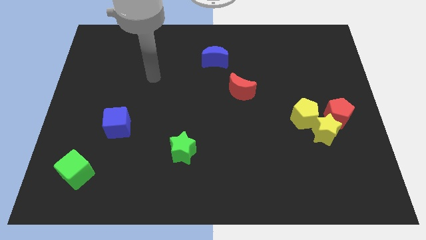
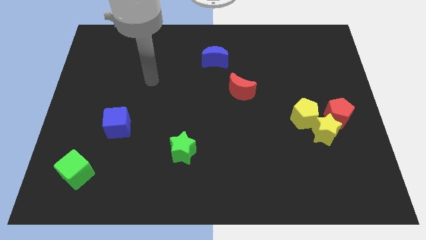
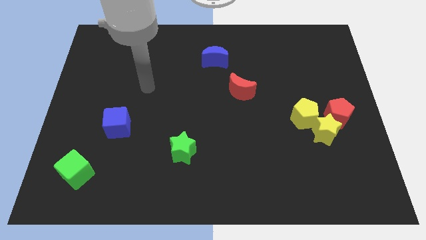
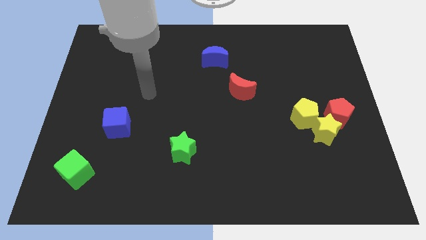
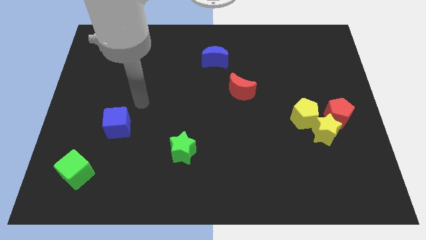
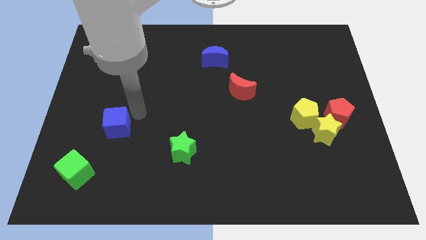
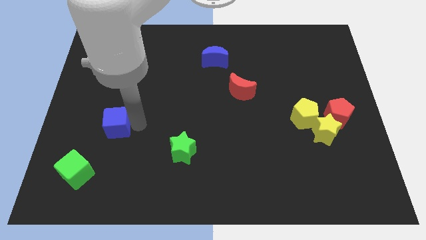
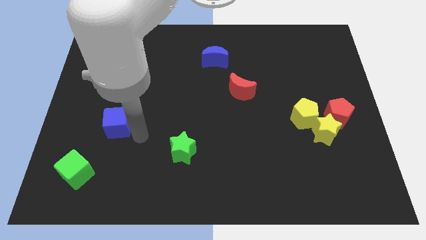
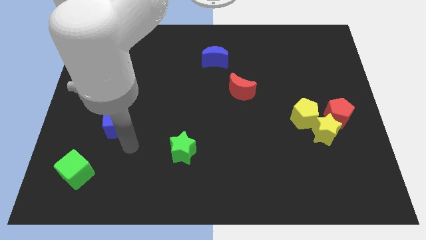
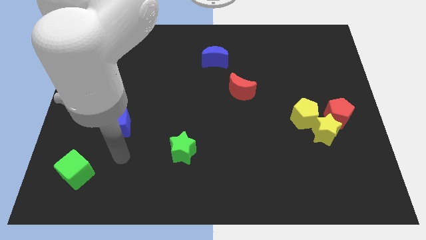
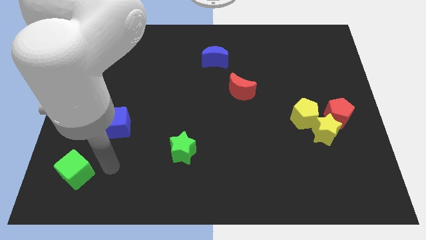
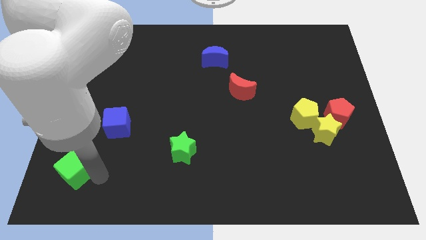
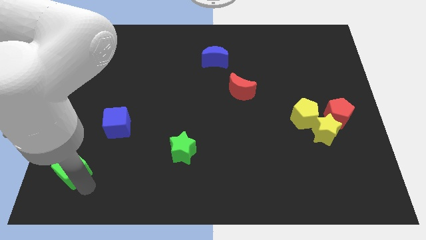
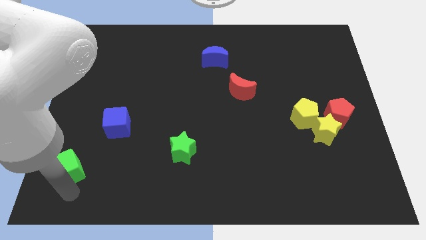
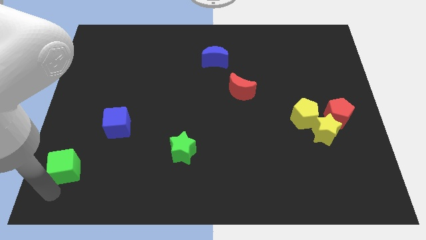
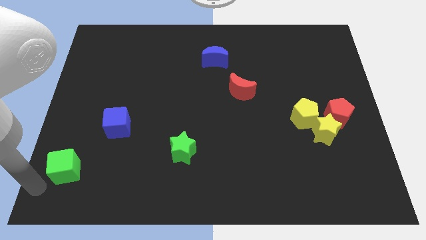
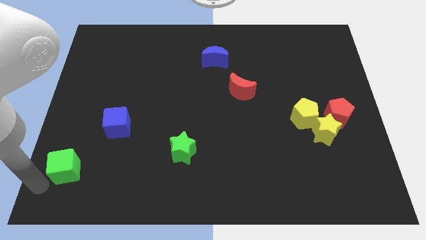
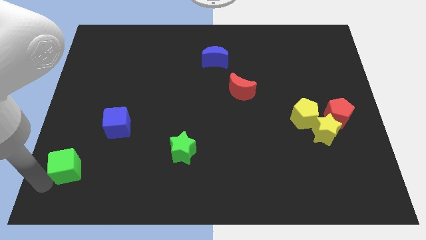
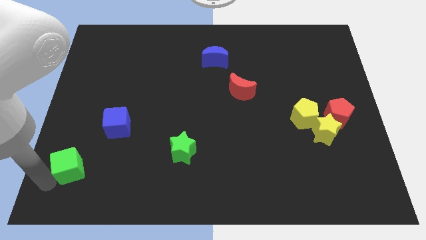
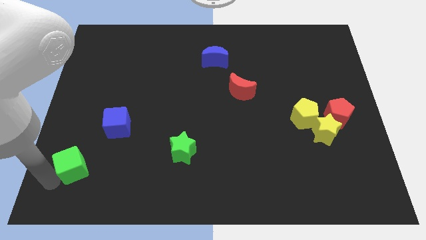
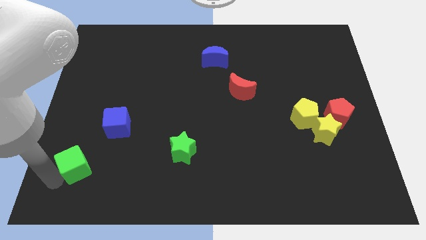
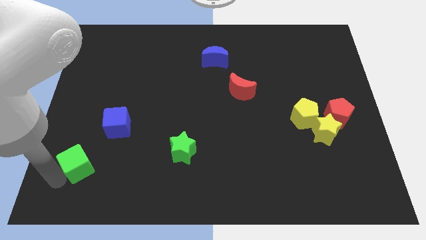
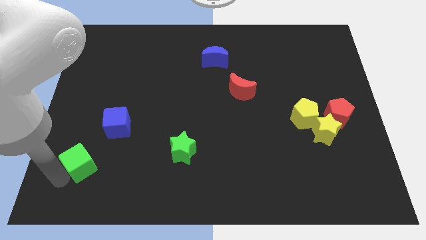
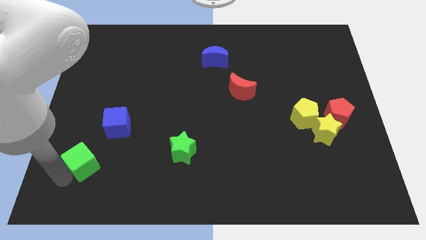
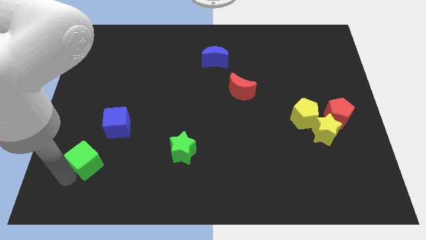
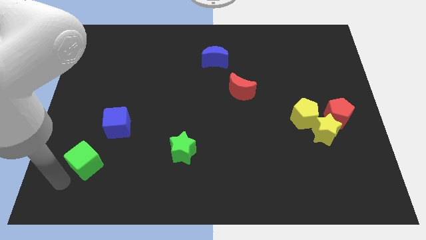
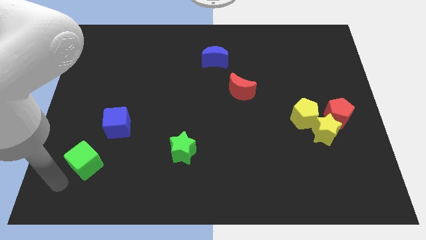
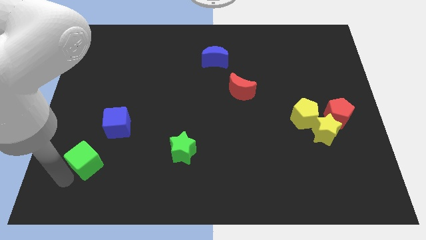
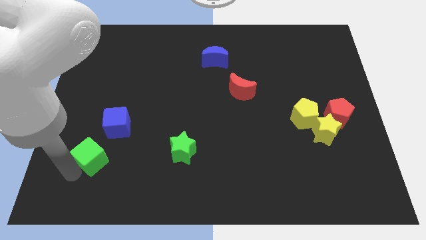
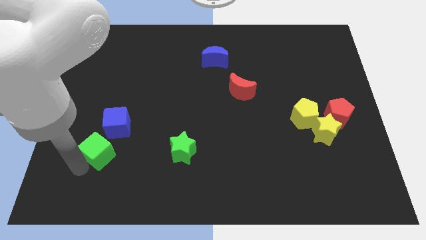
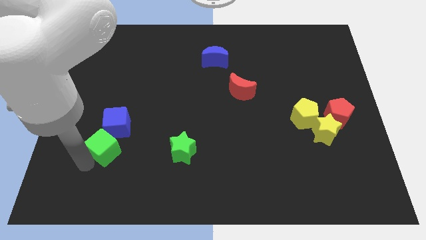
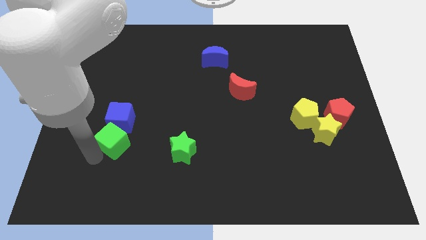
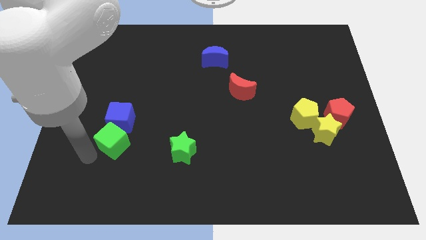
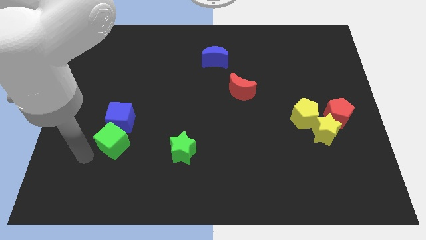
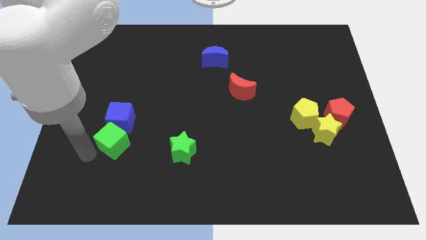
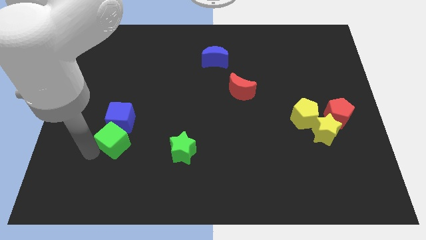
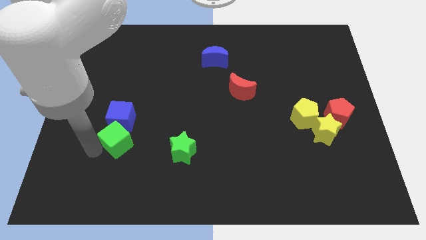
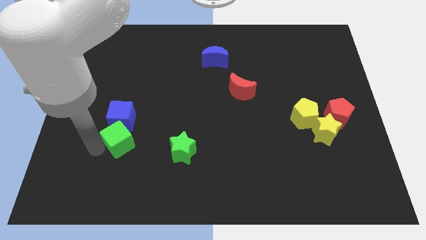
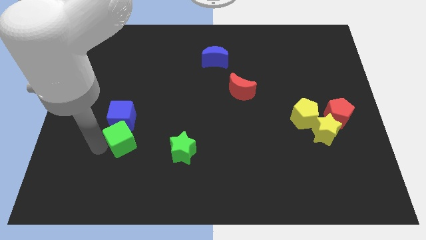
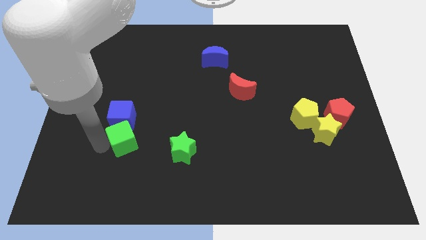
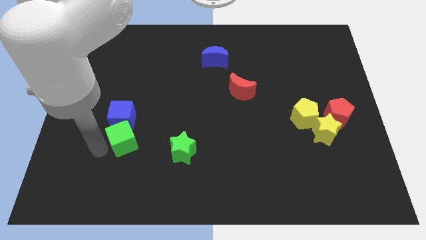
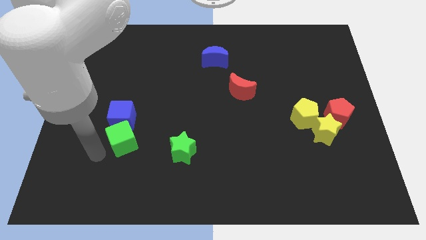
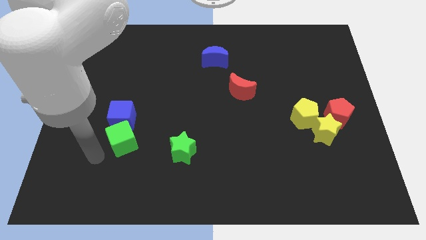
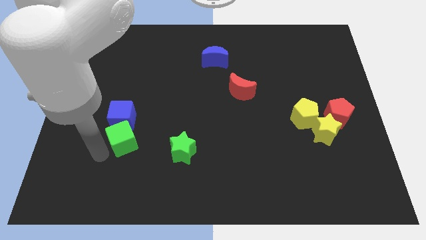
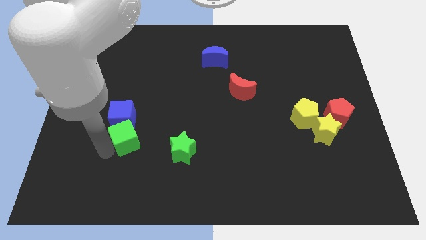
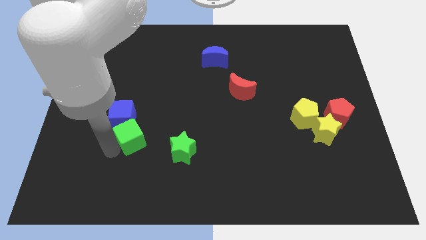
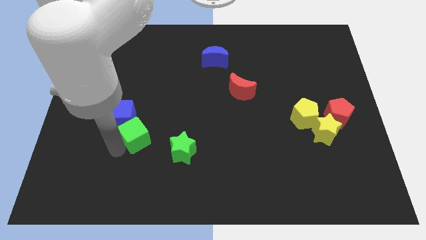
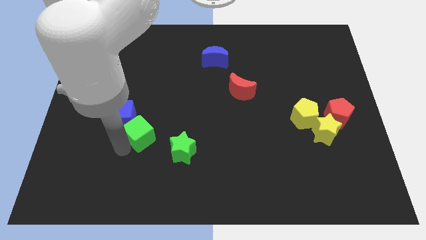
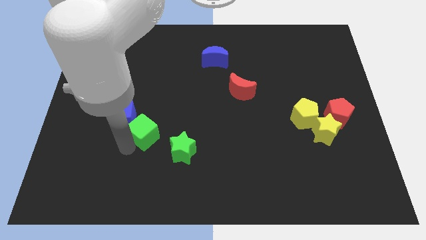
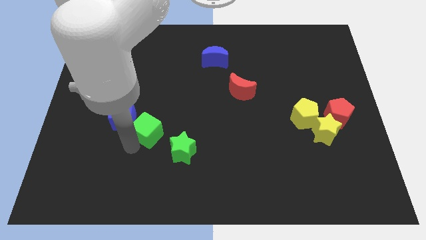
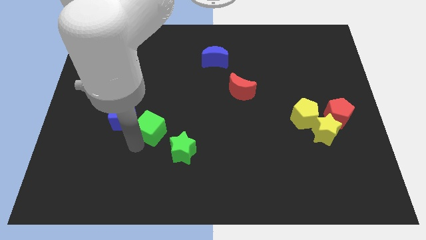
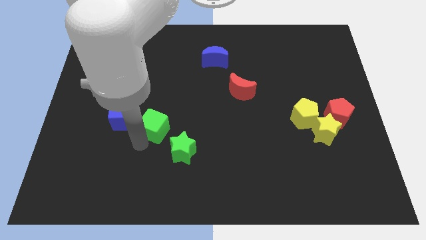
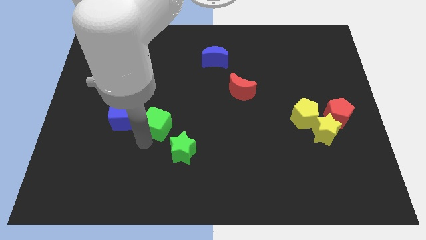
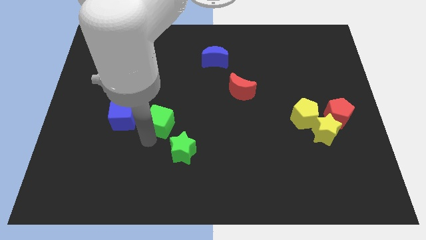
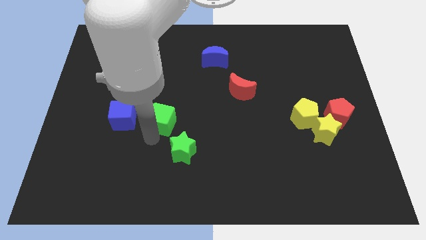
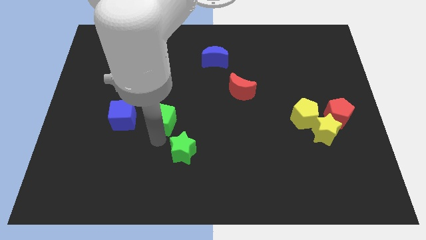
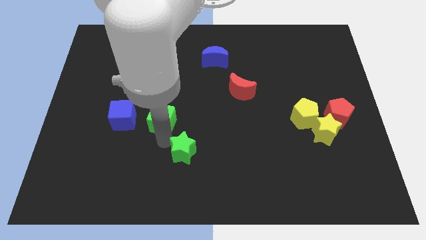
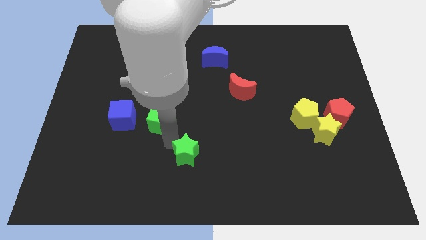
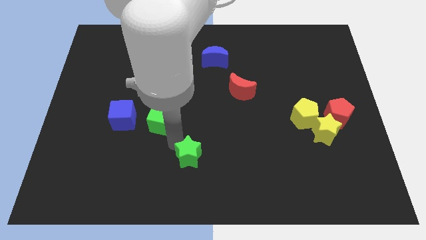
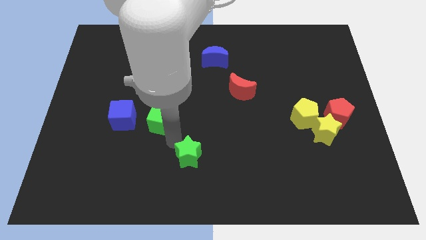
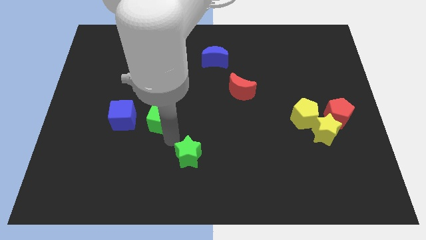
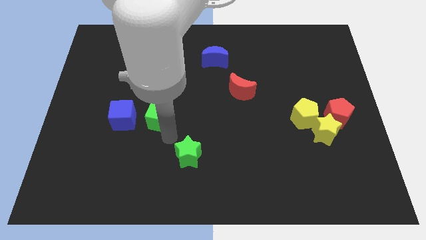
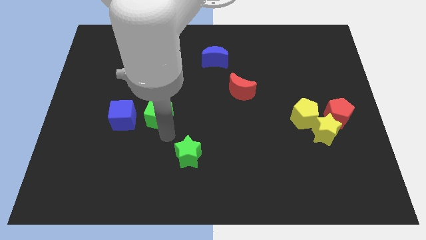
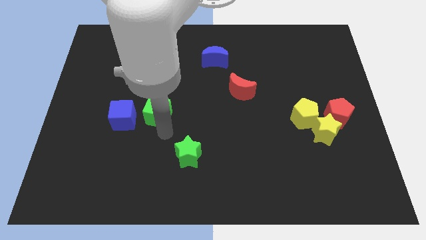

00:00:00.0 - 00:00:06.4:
slide the green cube to the top right of the blue cube
